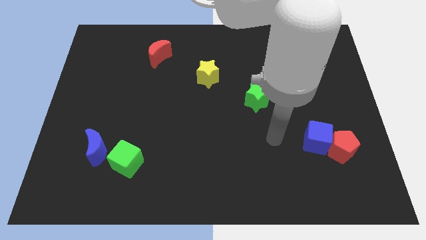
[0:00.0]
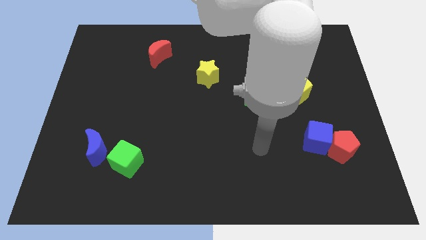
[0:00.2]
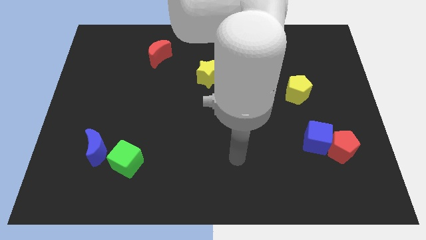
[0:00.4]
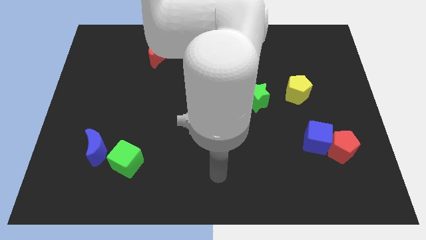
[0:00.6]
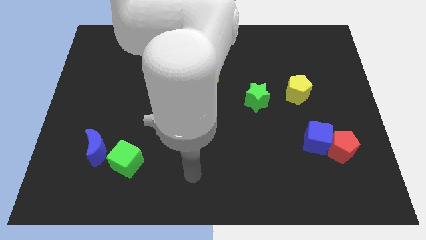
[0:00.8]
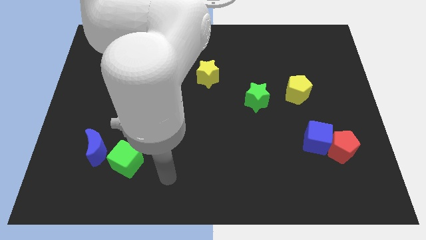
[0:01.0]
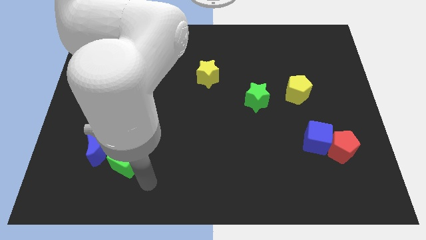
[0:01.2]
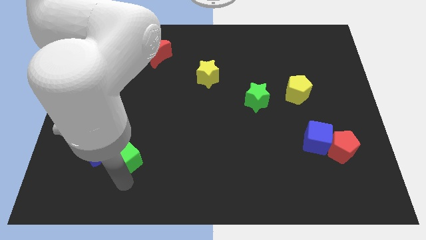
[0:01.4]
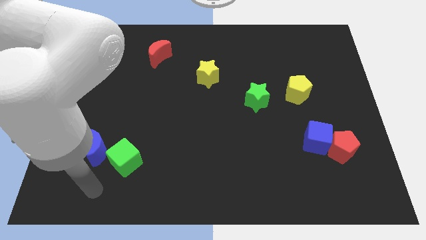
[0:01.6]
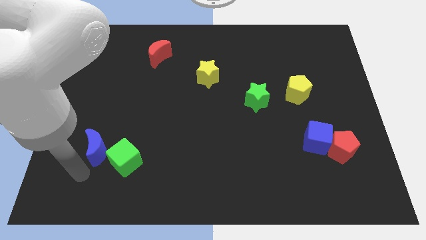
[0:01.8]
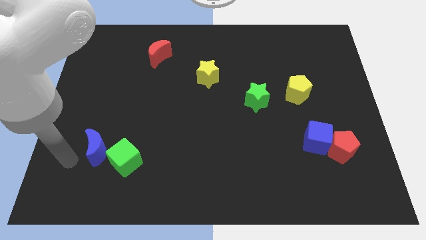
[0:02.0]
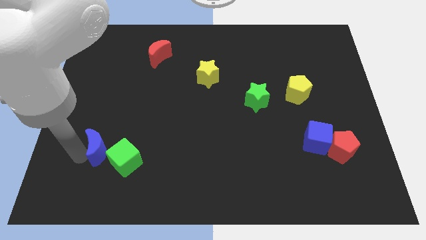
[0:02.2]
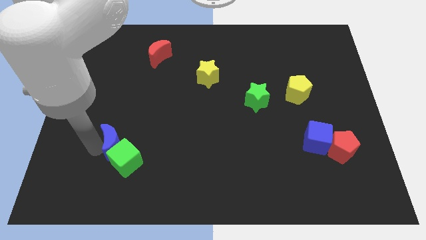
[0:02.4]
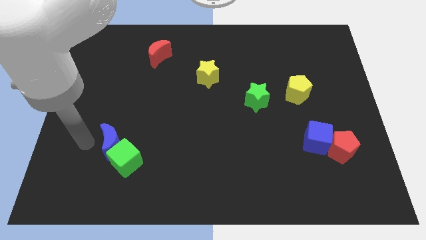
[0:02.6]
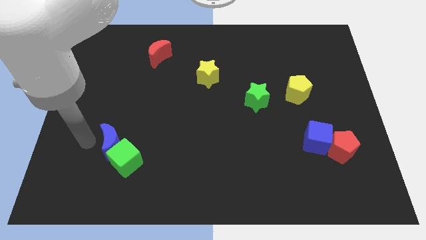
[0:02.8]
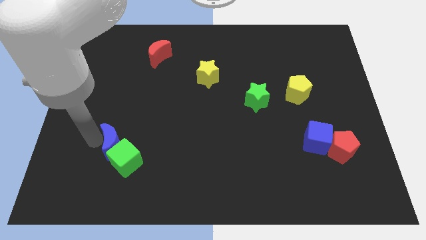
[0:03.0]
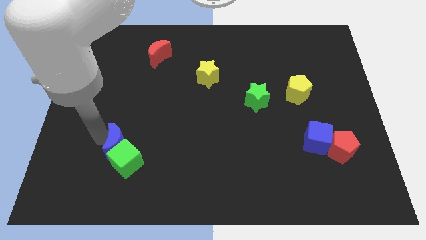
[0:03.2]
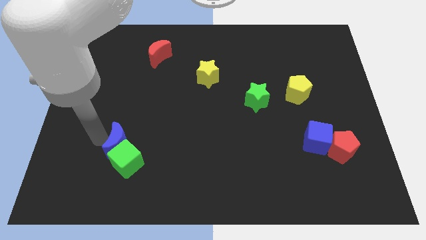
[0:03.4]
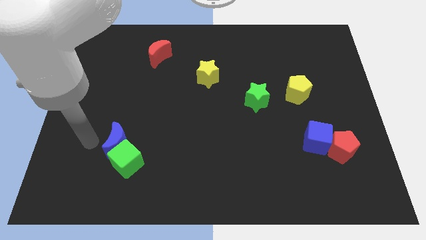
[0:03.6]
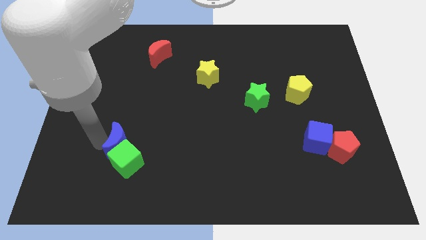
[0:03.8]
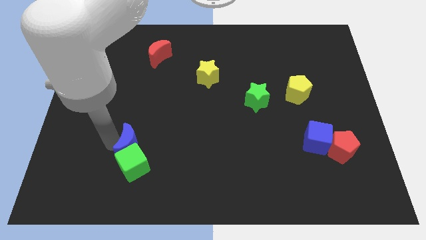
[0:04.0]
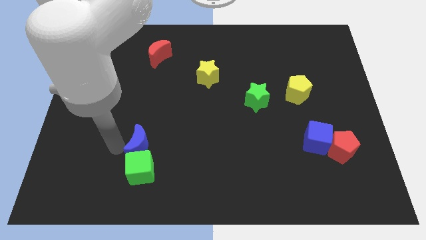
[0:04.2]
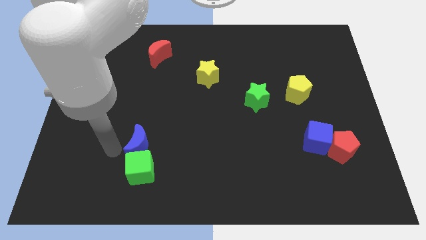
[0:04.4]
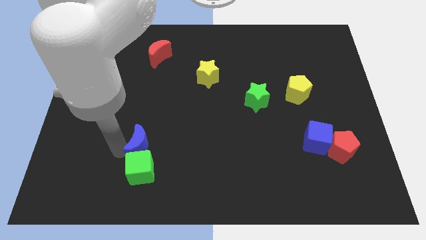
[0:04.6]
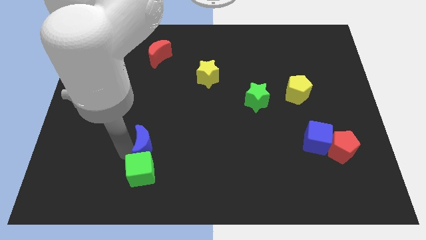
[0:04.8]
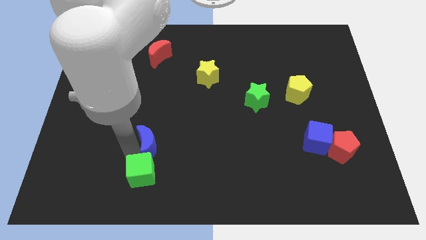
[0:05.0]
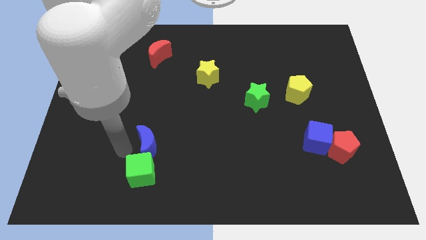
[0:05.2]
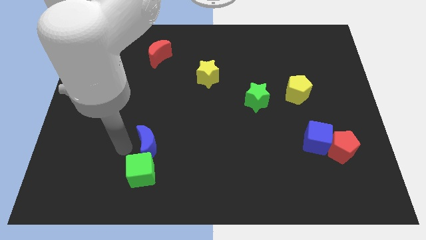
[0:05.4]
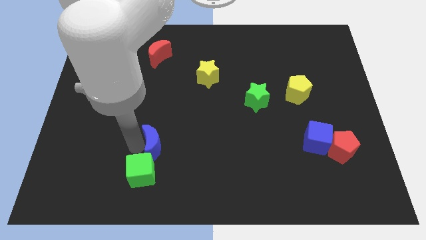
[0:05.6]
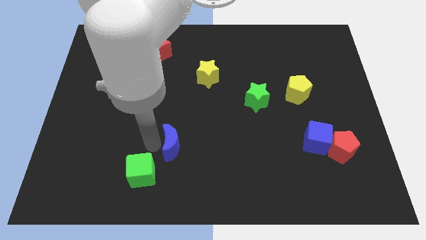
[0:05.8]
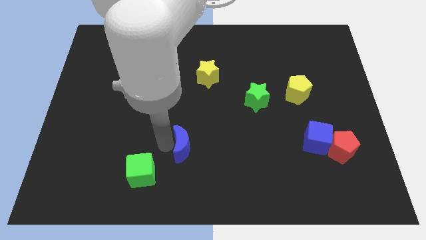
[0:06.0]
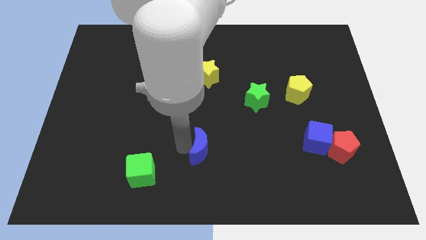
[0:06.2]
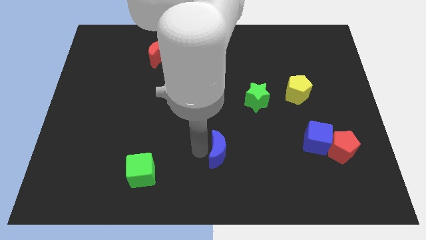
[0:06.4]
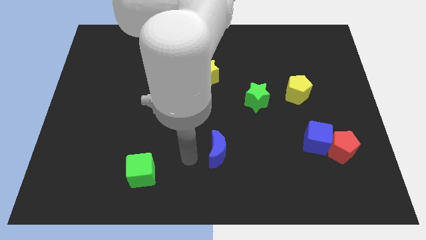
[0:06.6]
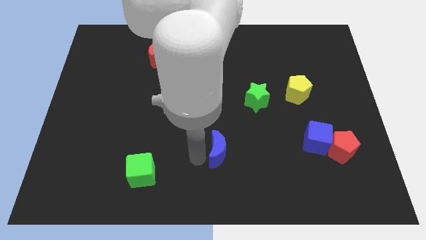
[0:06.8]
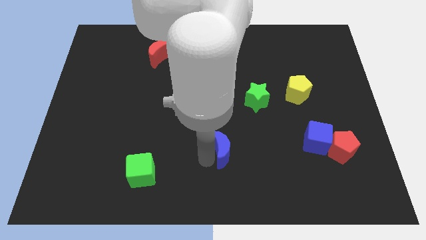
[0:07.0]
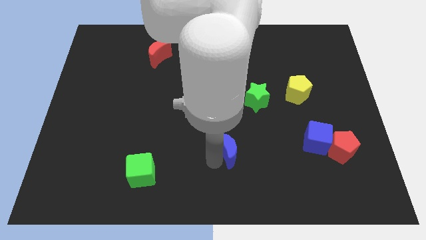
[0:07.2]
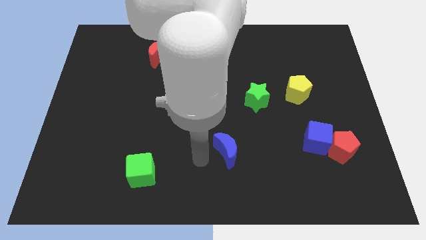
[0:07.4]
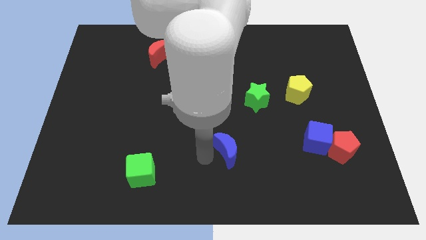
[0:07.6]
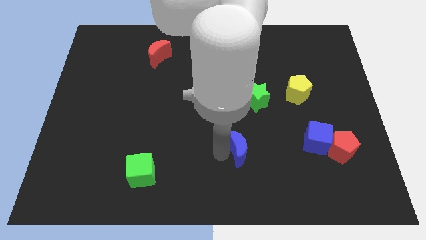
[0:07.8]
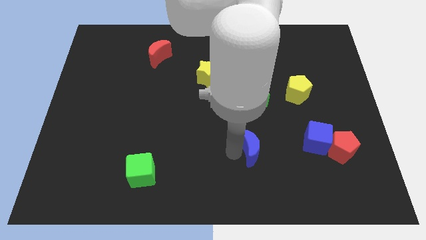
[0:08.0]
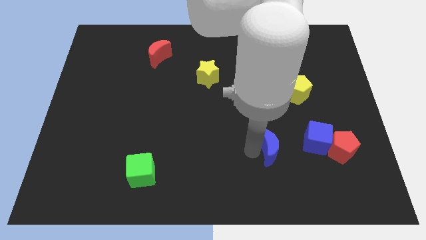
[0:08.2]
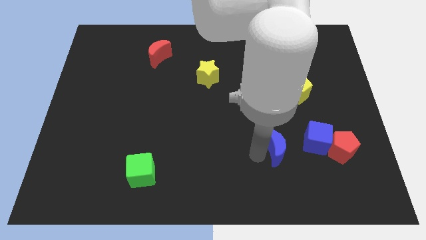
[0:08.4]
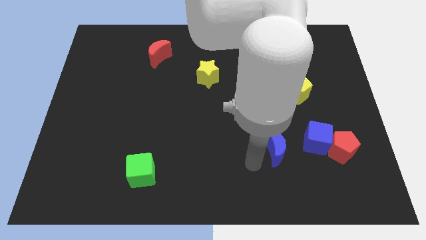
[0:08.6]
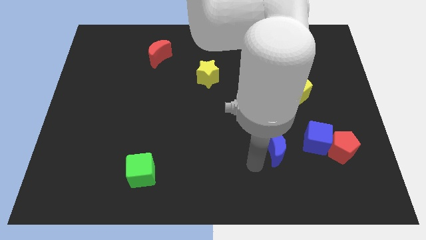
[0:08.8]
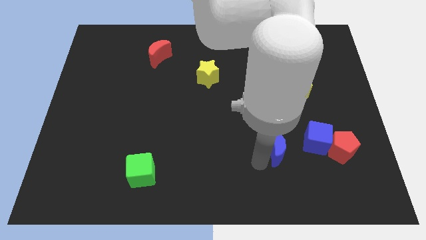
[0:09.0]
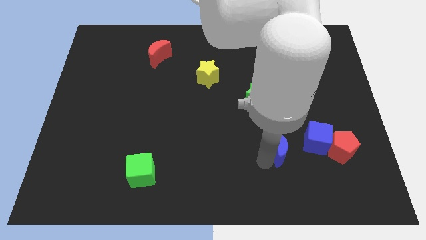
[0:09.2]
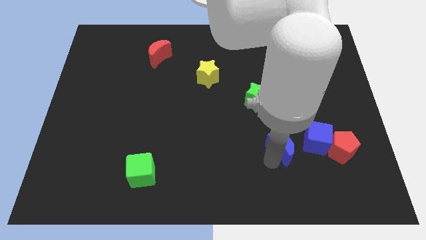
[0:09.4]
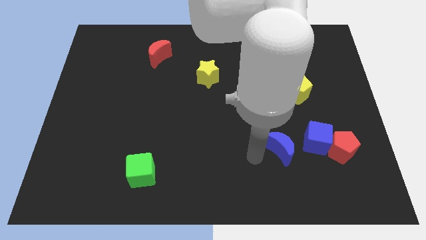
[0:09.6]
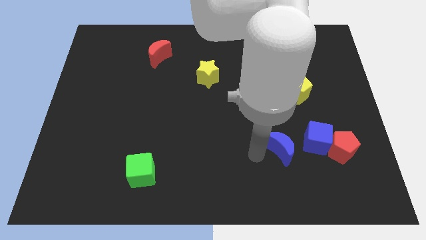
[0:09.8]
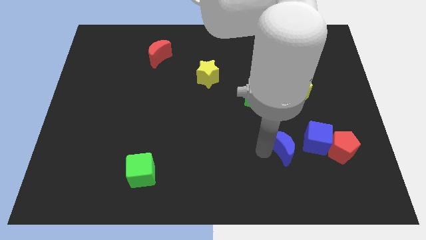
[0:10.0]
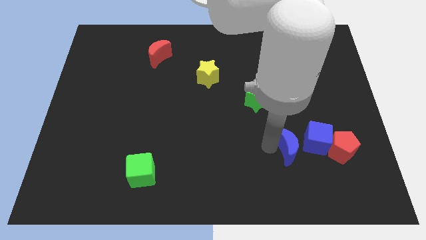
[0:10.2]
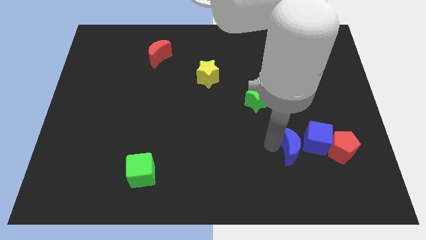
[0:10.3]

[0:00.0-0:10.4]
push the blue moon towards the blue cube

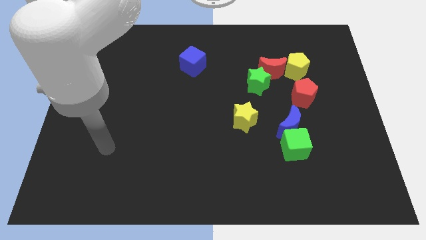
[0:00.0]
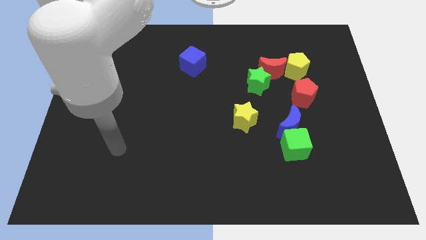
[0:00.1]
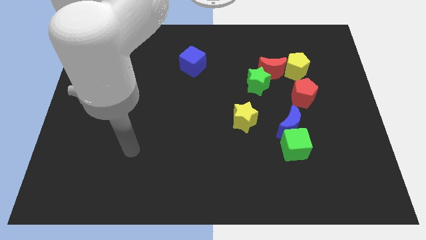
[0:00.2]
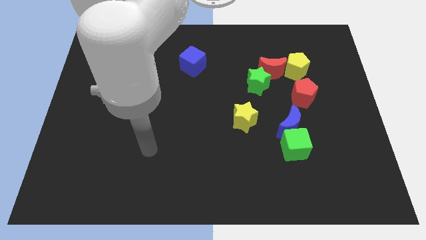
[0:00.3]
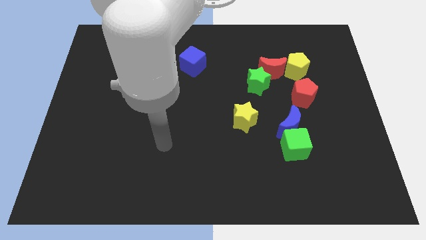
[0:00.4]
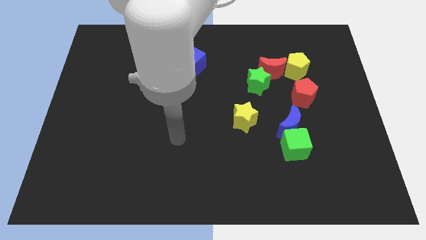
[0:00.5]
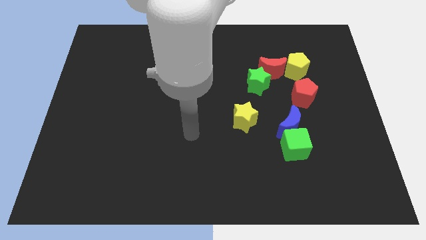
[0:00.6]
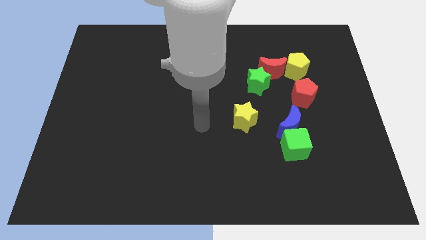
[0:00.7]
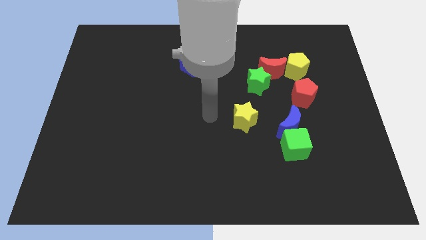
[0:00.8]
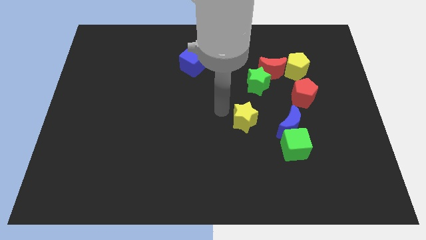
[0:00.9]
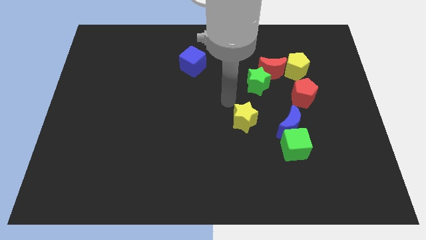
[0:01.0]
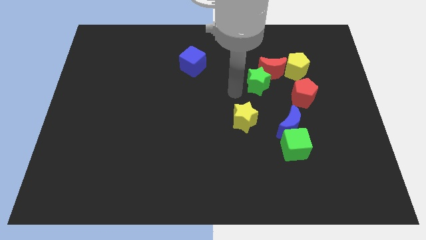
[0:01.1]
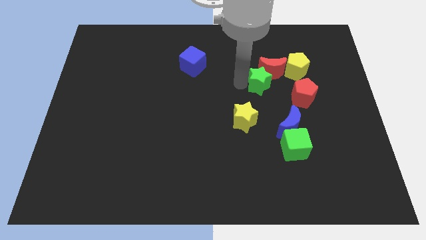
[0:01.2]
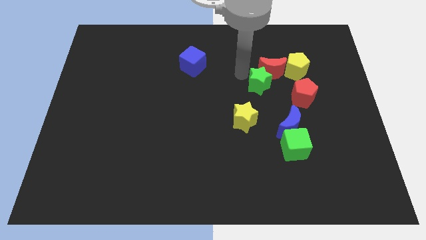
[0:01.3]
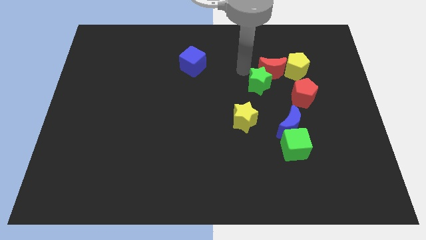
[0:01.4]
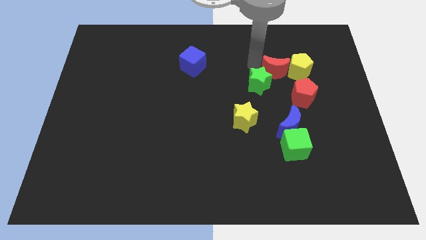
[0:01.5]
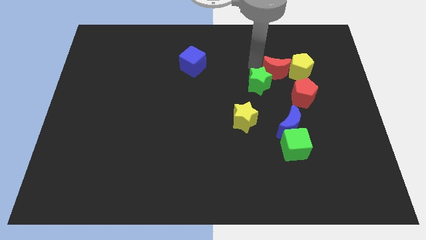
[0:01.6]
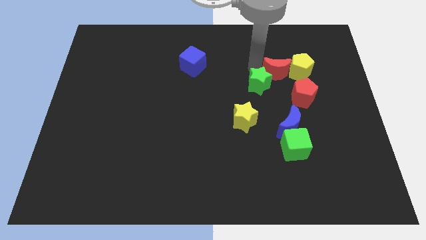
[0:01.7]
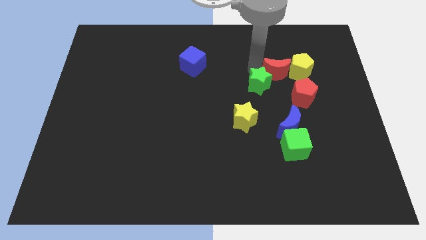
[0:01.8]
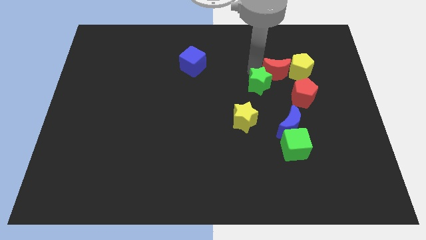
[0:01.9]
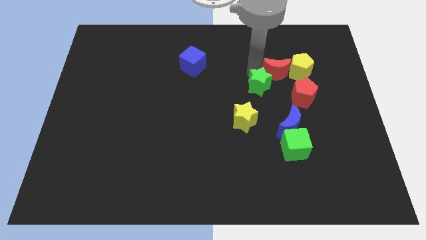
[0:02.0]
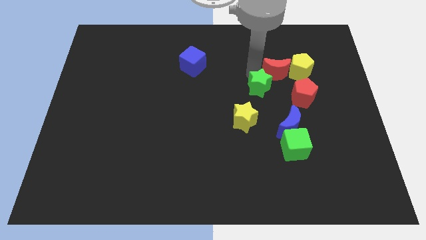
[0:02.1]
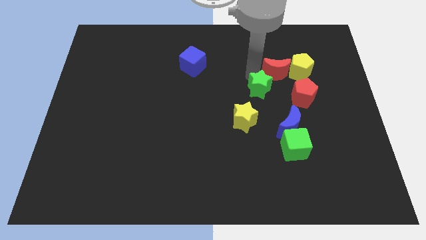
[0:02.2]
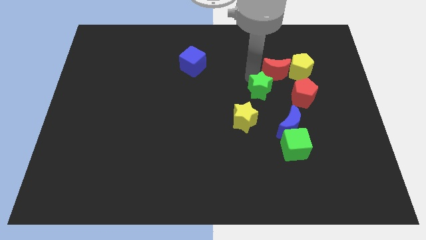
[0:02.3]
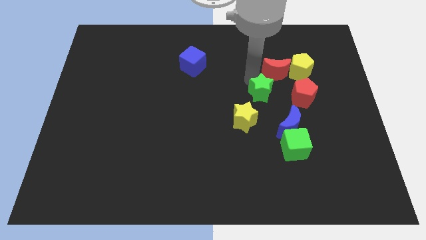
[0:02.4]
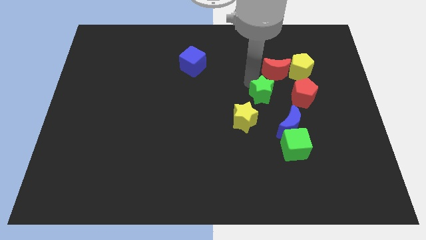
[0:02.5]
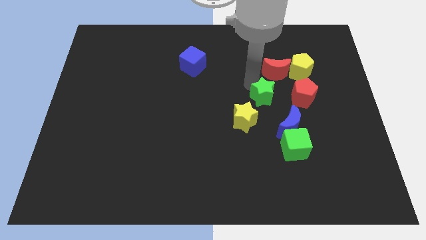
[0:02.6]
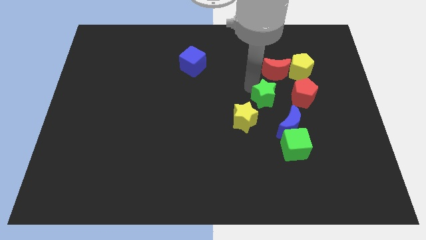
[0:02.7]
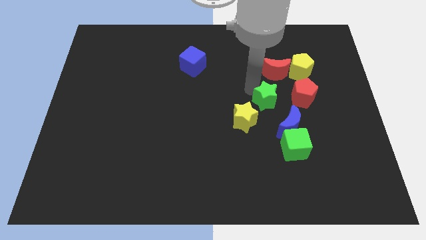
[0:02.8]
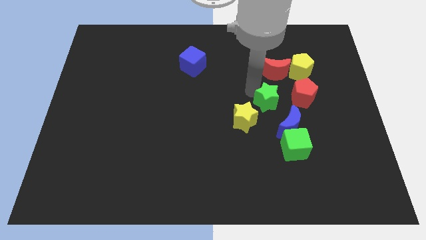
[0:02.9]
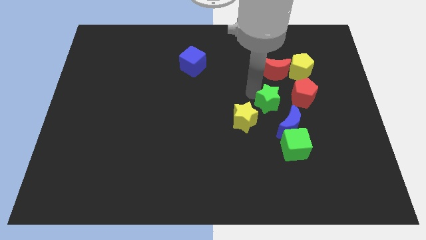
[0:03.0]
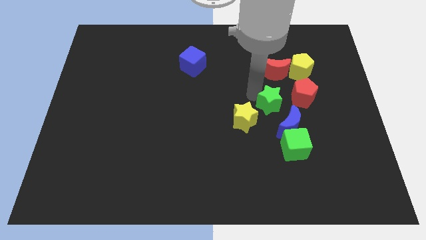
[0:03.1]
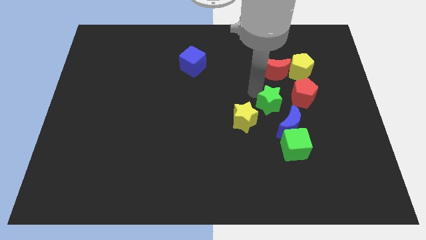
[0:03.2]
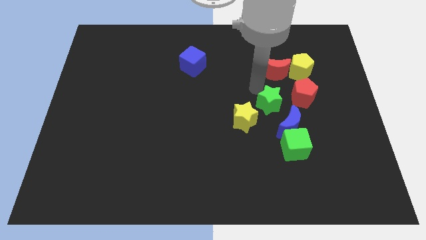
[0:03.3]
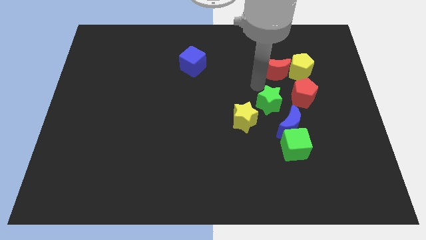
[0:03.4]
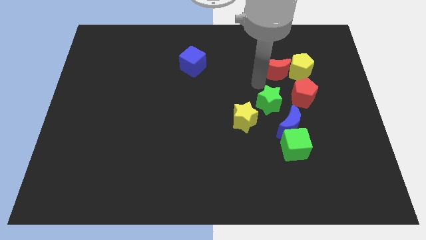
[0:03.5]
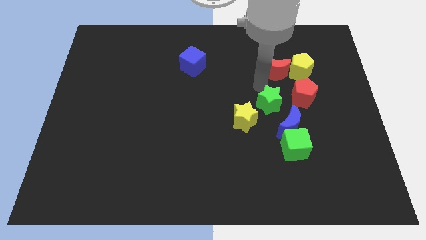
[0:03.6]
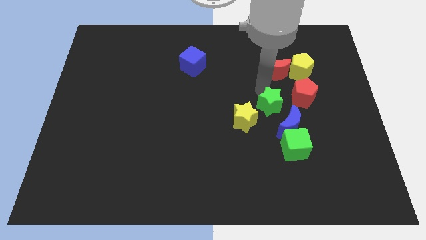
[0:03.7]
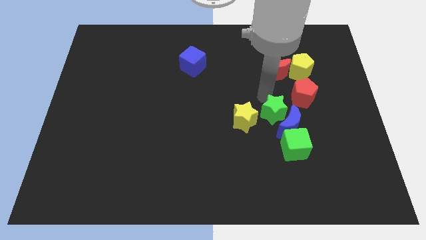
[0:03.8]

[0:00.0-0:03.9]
push the green star towards the blue moon
